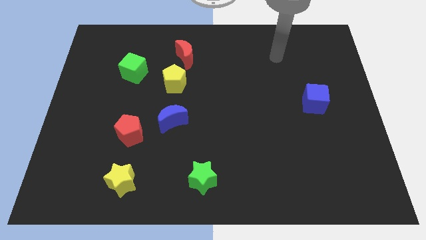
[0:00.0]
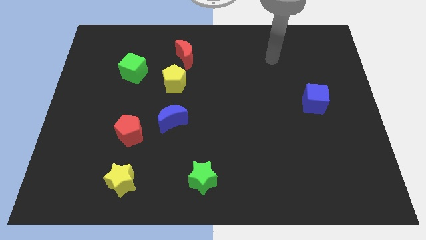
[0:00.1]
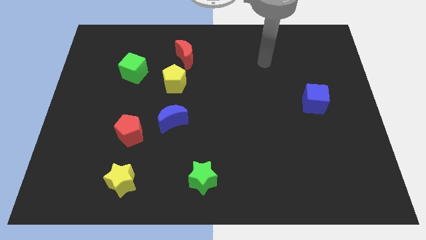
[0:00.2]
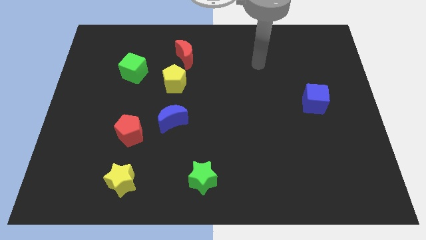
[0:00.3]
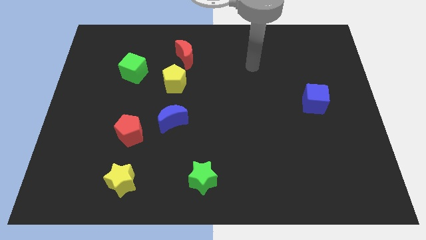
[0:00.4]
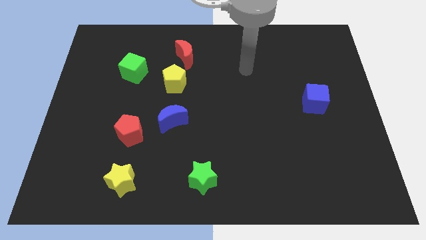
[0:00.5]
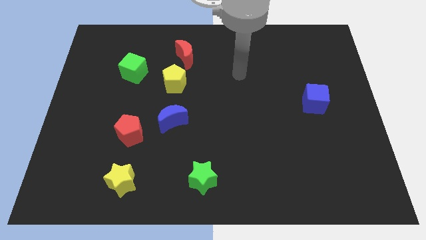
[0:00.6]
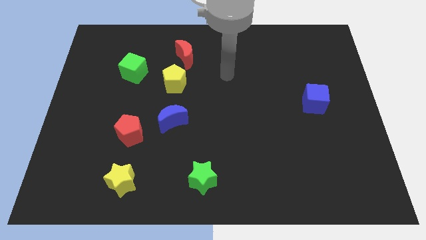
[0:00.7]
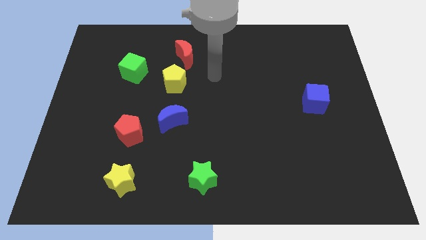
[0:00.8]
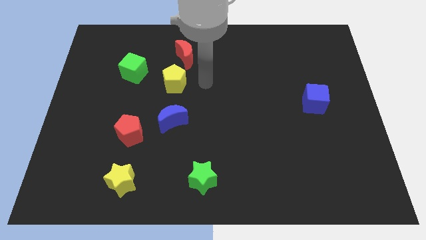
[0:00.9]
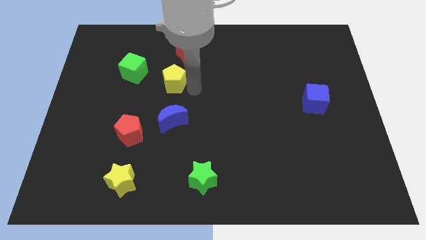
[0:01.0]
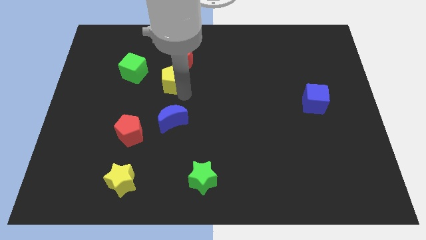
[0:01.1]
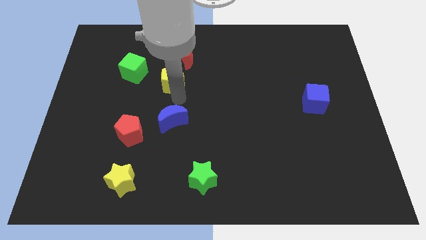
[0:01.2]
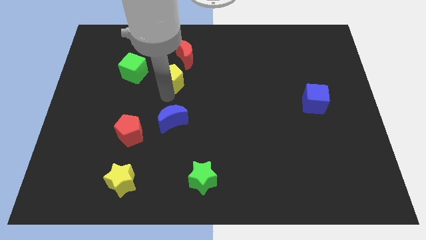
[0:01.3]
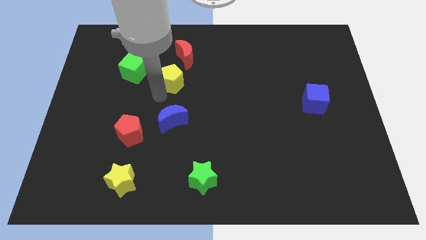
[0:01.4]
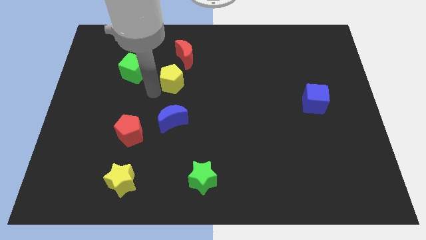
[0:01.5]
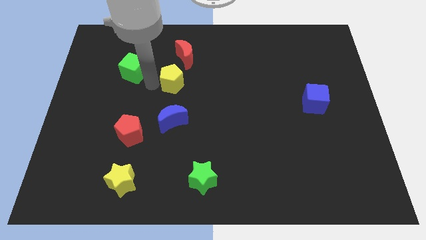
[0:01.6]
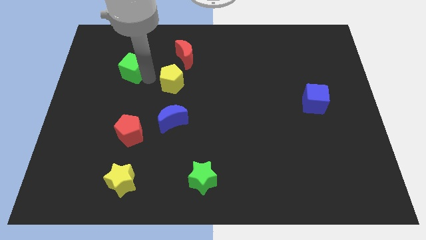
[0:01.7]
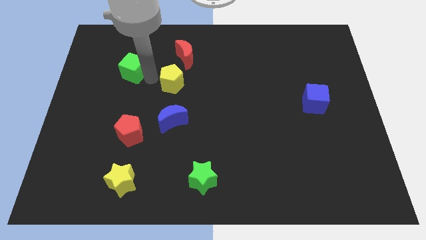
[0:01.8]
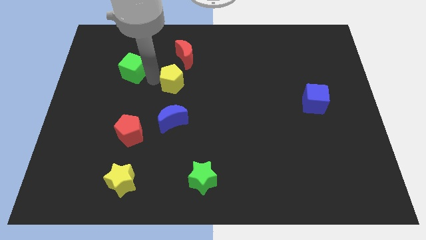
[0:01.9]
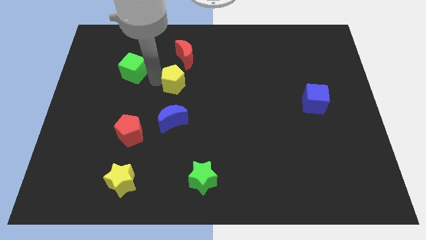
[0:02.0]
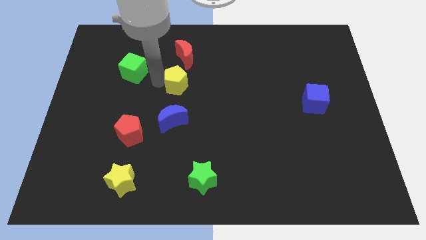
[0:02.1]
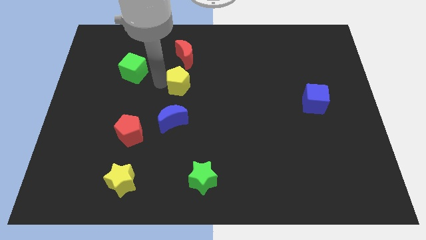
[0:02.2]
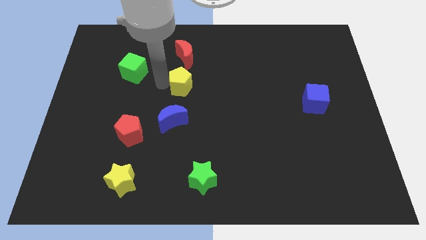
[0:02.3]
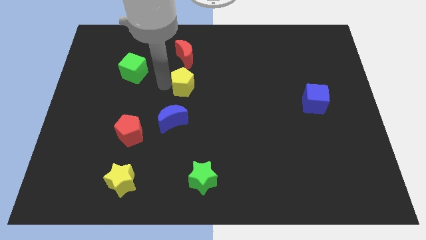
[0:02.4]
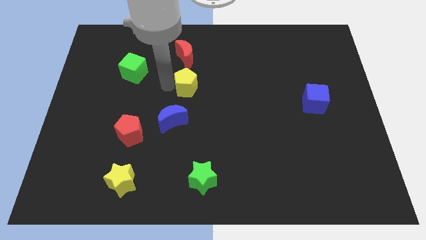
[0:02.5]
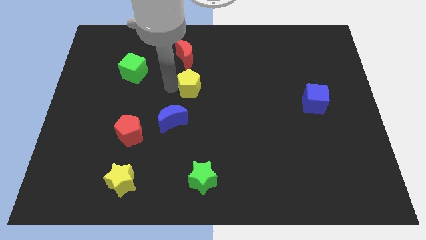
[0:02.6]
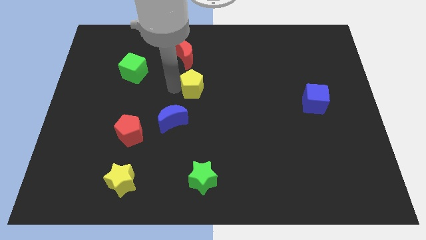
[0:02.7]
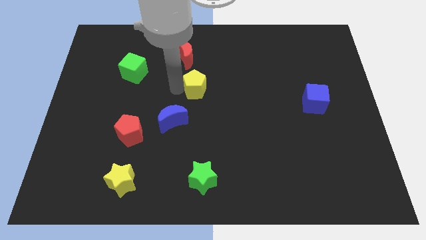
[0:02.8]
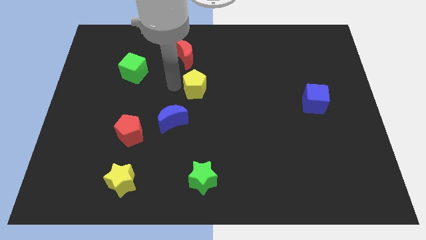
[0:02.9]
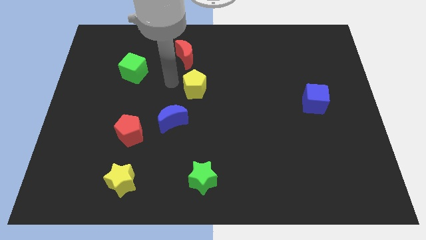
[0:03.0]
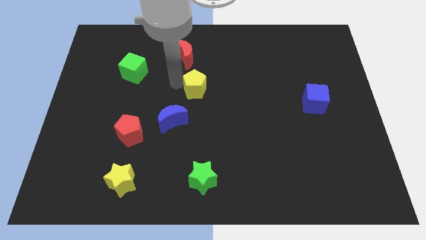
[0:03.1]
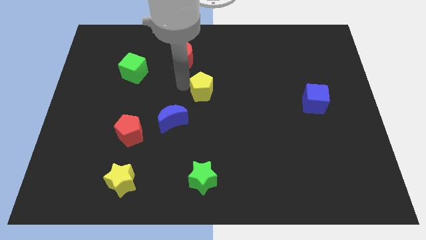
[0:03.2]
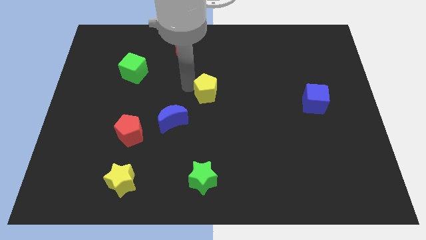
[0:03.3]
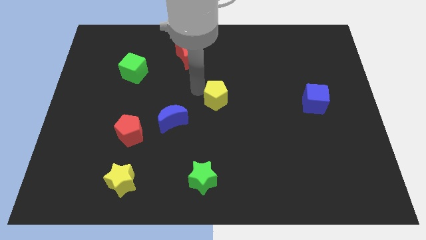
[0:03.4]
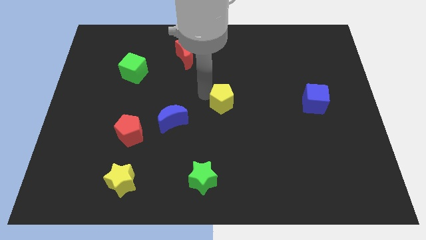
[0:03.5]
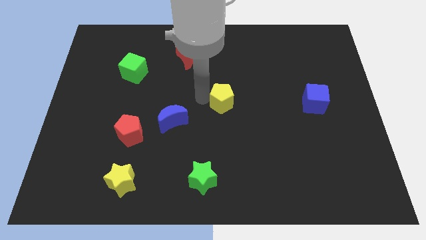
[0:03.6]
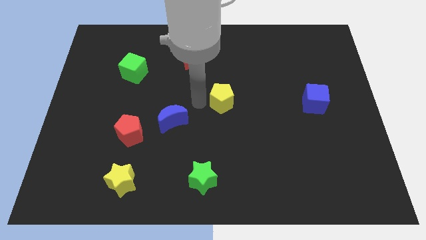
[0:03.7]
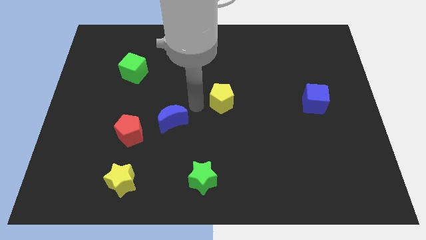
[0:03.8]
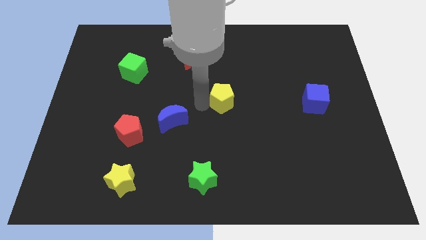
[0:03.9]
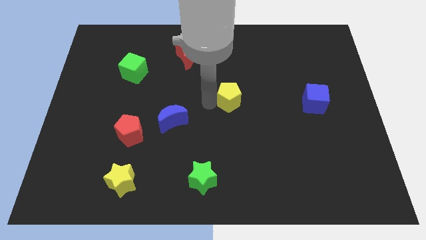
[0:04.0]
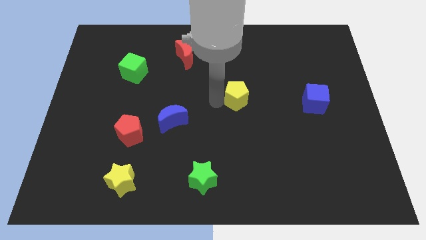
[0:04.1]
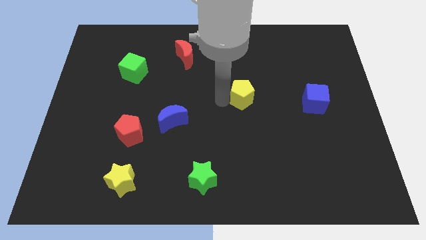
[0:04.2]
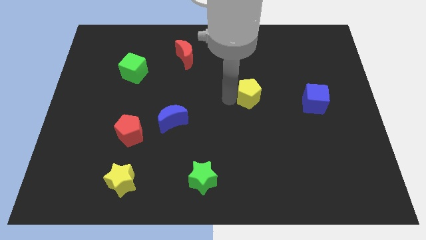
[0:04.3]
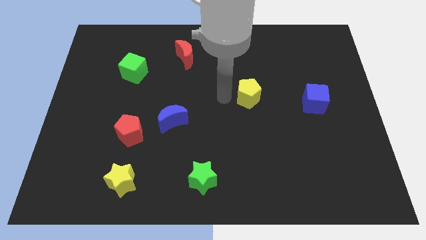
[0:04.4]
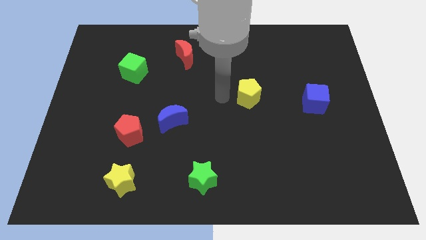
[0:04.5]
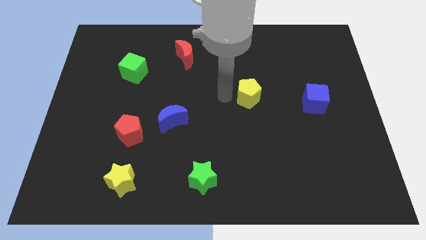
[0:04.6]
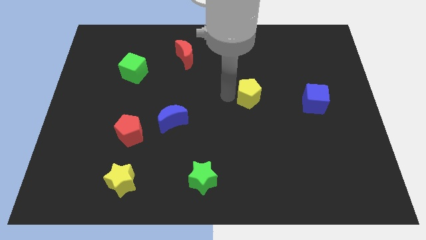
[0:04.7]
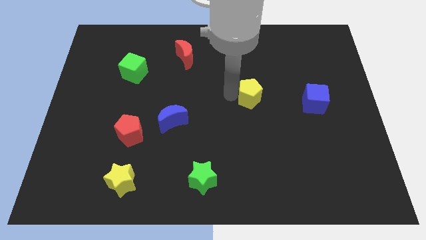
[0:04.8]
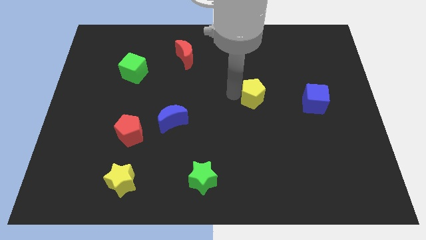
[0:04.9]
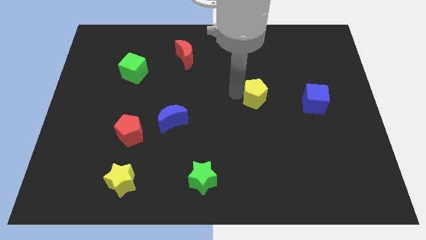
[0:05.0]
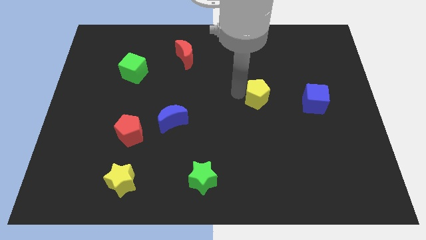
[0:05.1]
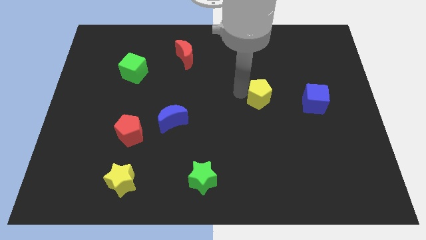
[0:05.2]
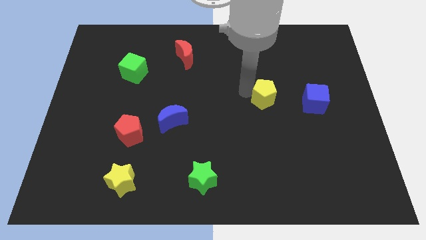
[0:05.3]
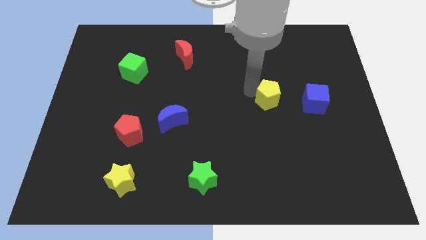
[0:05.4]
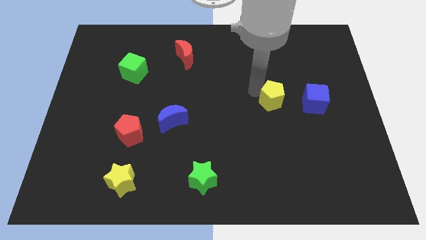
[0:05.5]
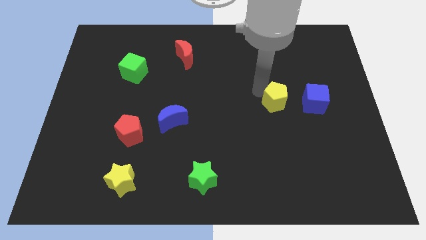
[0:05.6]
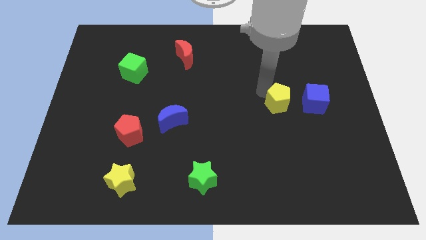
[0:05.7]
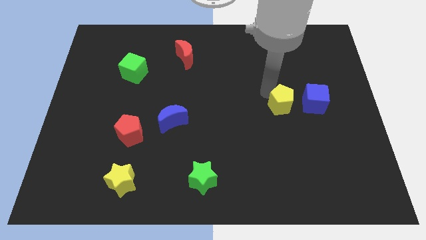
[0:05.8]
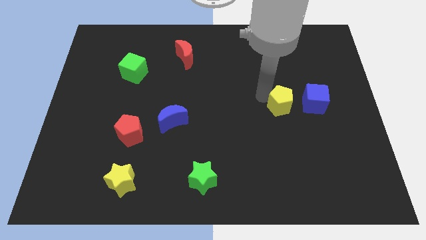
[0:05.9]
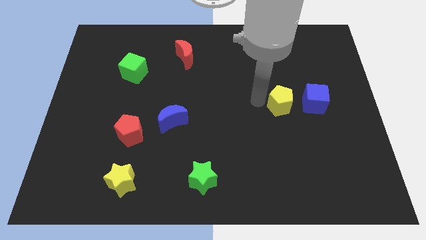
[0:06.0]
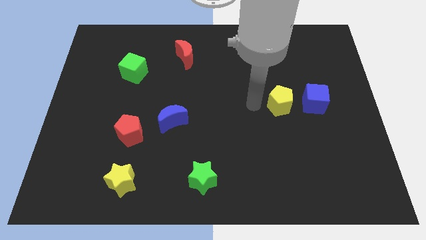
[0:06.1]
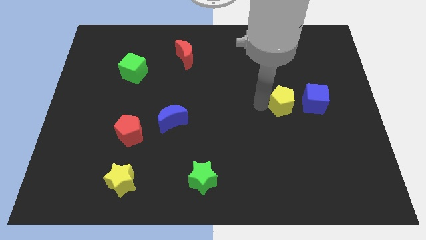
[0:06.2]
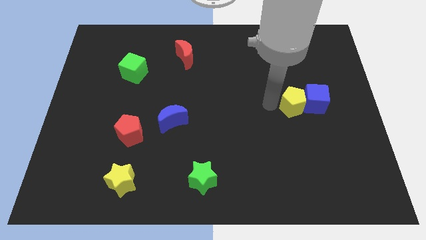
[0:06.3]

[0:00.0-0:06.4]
slide the yellow pentagon next to the blue cube

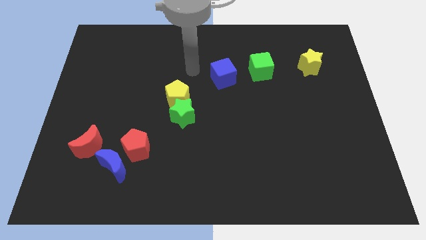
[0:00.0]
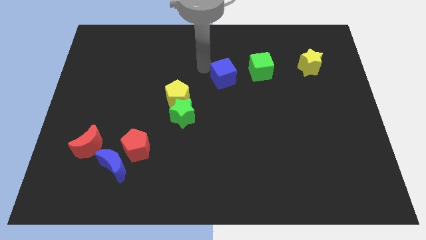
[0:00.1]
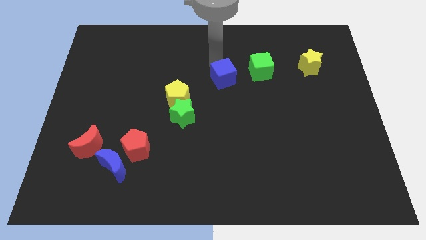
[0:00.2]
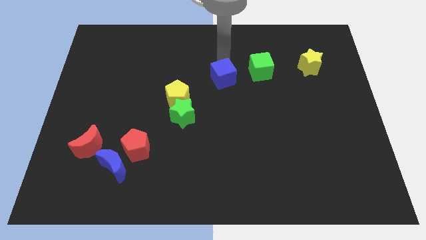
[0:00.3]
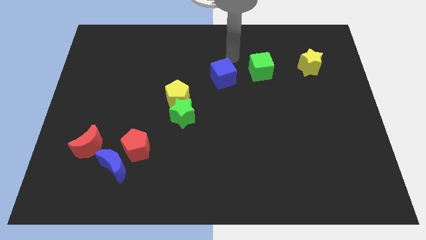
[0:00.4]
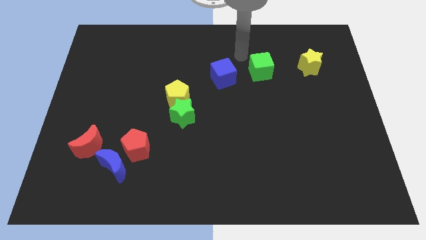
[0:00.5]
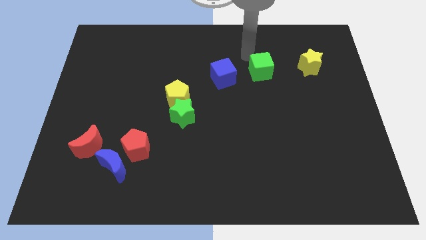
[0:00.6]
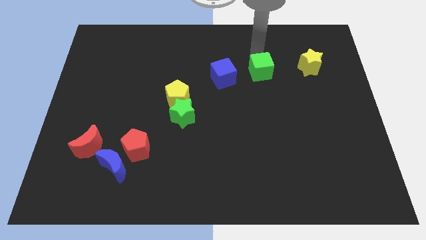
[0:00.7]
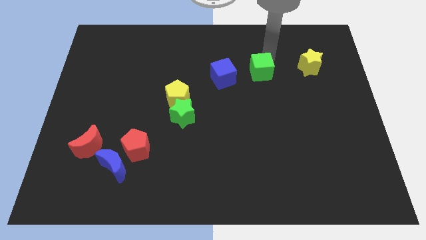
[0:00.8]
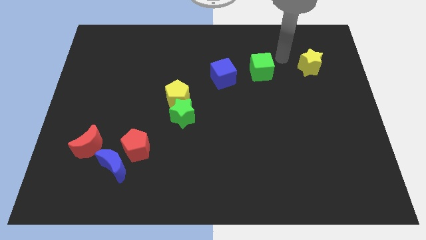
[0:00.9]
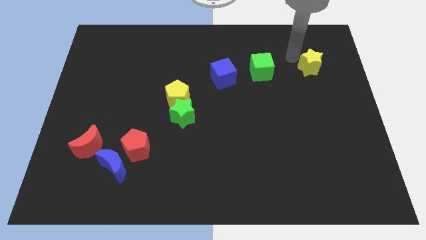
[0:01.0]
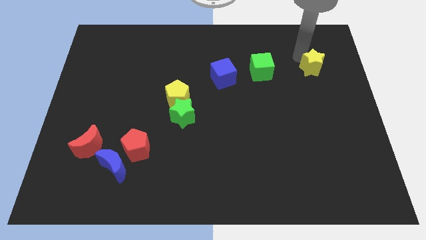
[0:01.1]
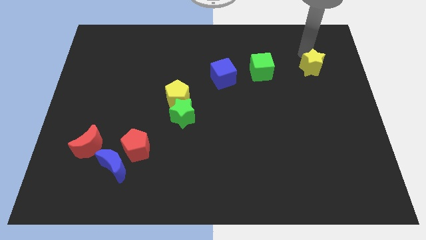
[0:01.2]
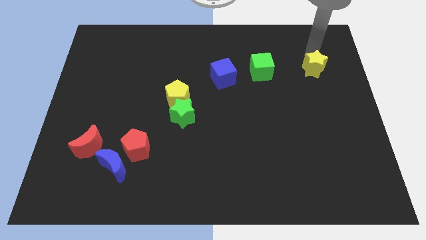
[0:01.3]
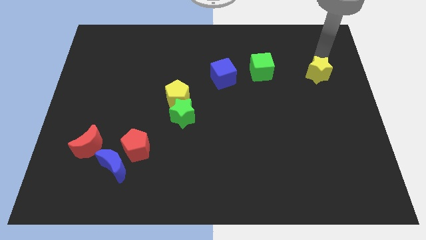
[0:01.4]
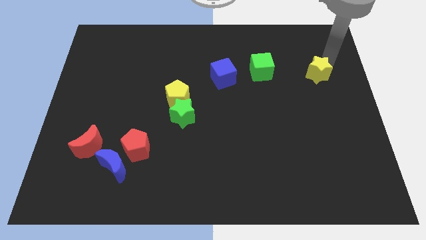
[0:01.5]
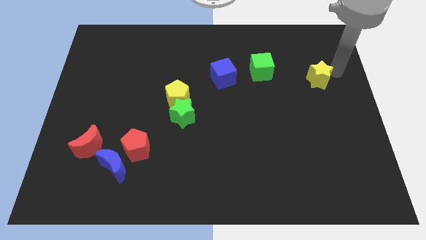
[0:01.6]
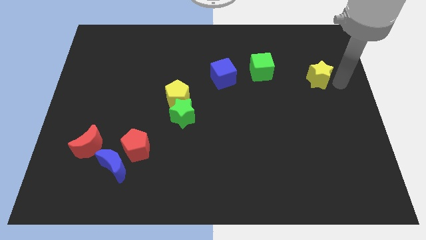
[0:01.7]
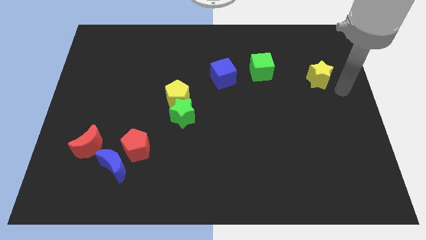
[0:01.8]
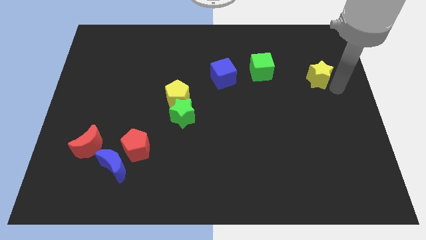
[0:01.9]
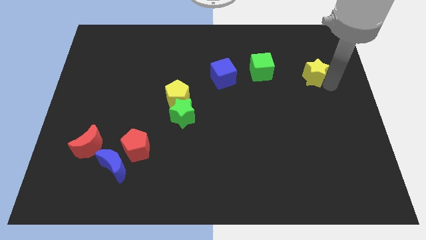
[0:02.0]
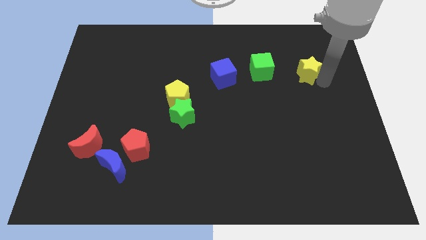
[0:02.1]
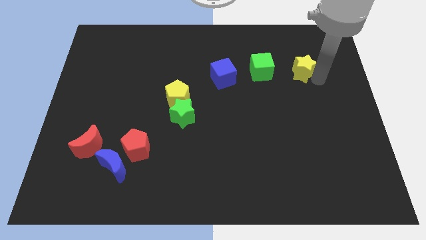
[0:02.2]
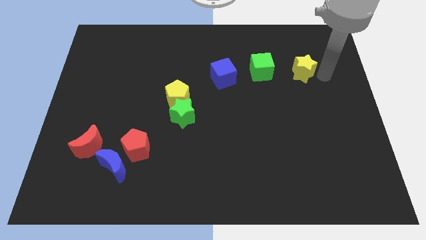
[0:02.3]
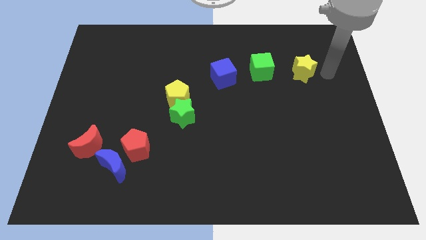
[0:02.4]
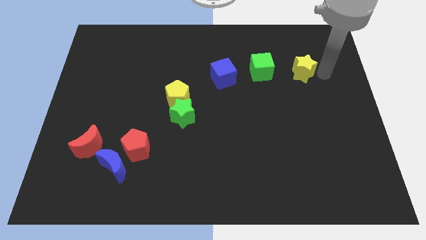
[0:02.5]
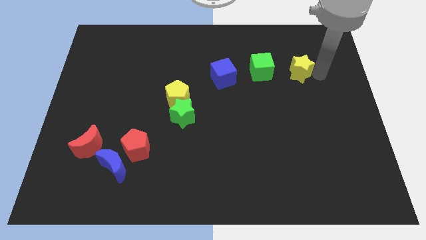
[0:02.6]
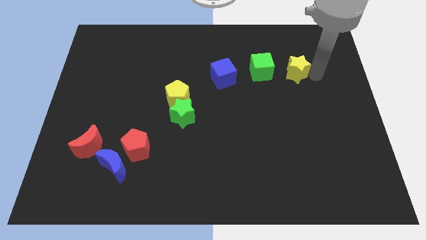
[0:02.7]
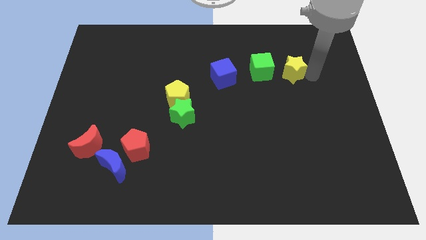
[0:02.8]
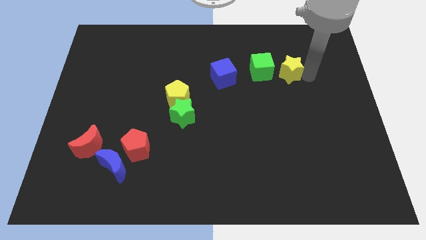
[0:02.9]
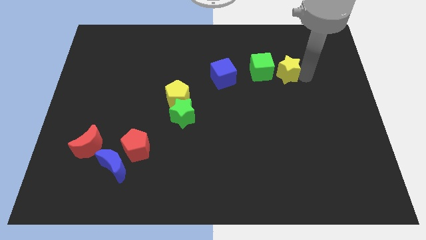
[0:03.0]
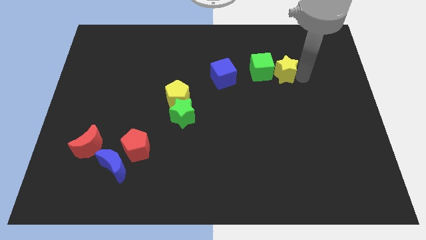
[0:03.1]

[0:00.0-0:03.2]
move the yellow star towards the green cube
